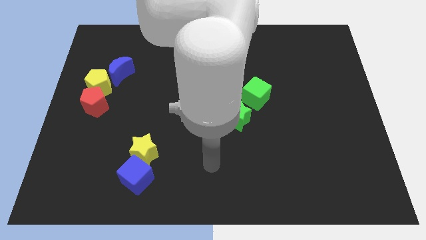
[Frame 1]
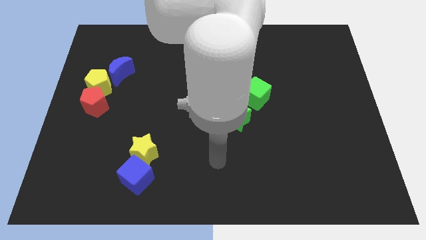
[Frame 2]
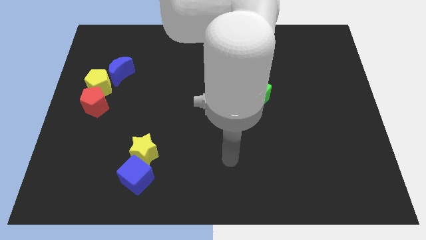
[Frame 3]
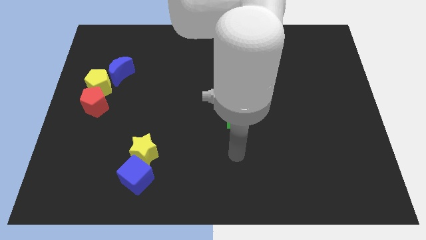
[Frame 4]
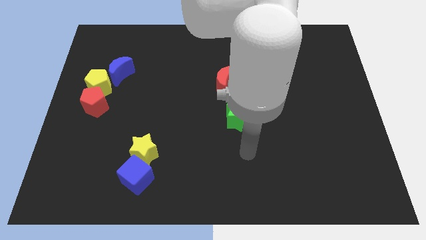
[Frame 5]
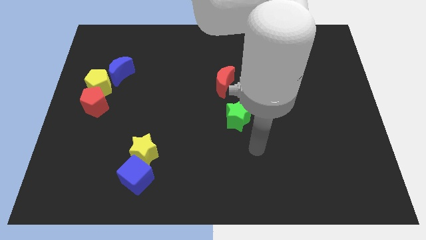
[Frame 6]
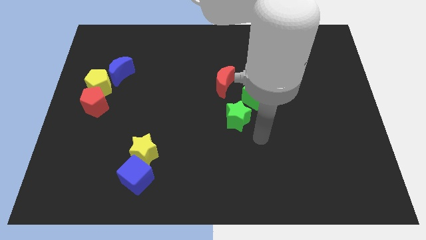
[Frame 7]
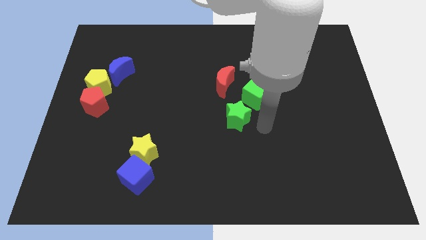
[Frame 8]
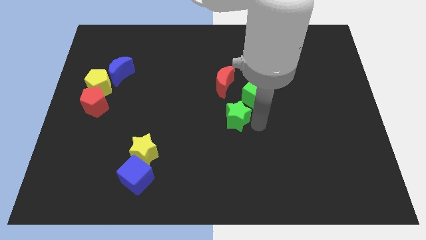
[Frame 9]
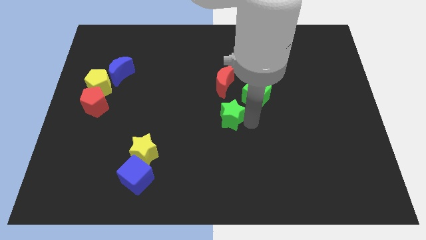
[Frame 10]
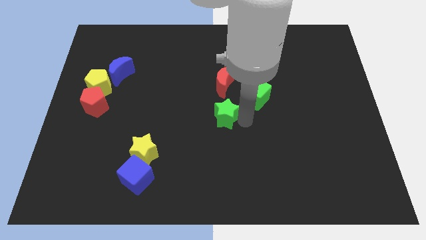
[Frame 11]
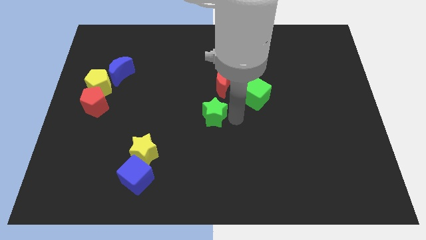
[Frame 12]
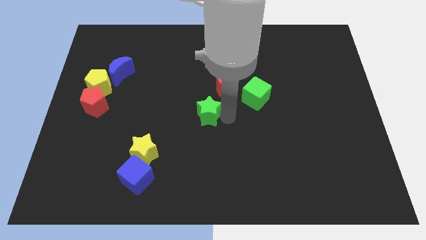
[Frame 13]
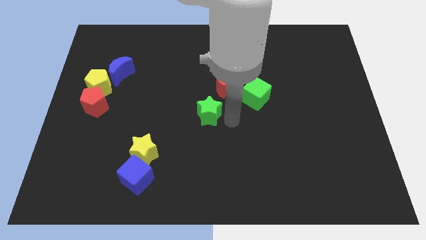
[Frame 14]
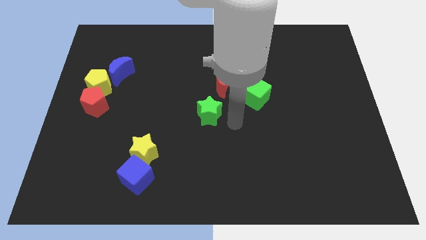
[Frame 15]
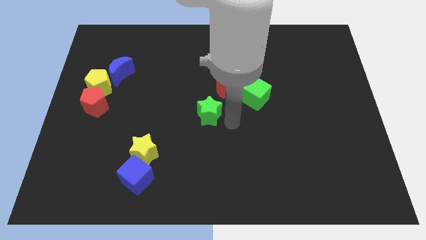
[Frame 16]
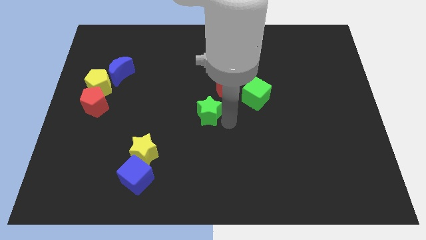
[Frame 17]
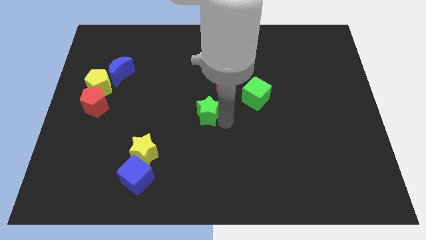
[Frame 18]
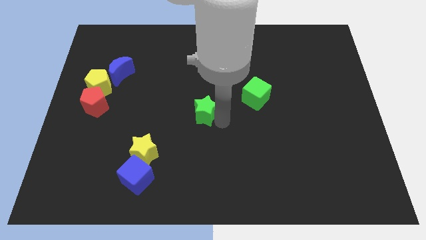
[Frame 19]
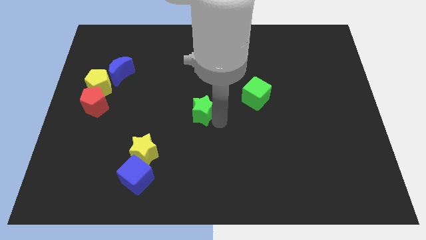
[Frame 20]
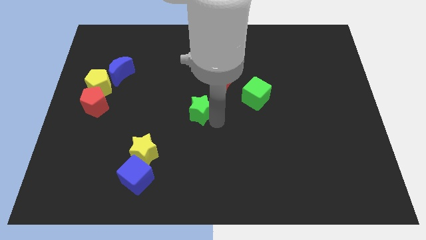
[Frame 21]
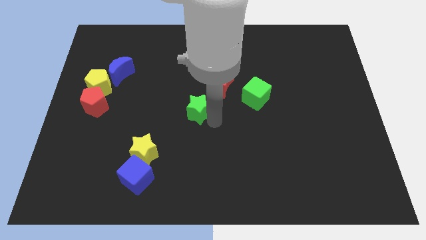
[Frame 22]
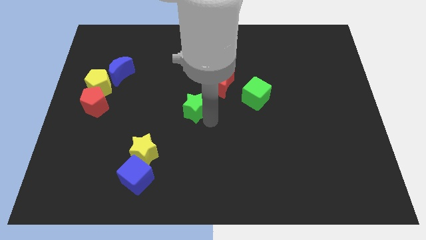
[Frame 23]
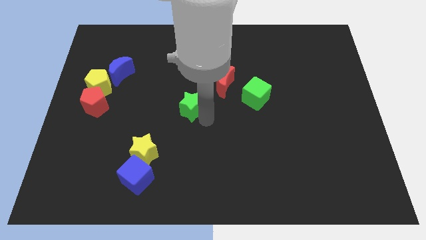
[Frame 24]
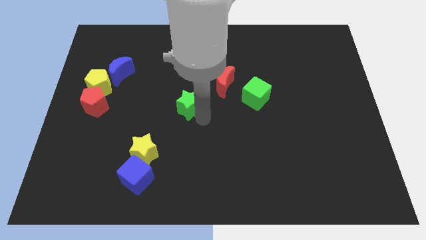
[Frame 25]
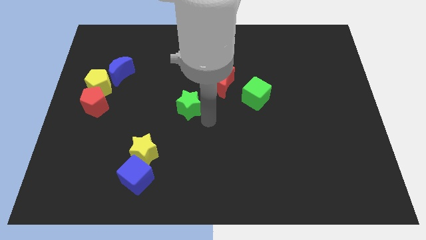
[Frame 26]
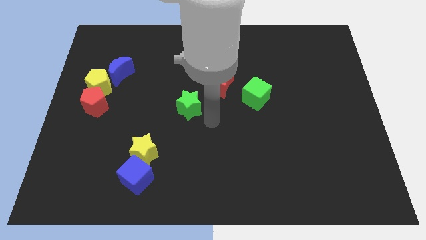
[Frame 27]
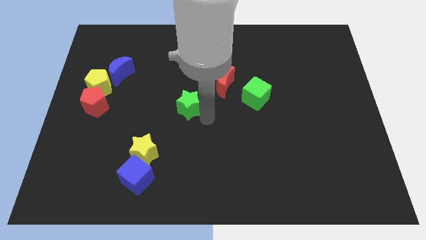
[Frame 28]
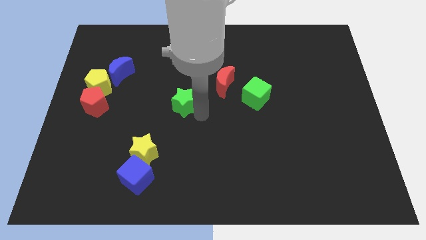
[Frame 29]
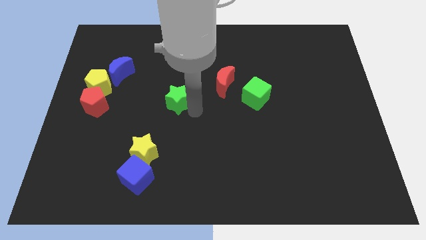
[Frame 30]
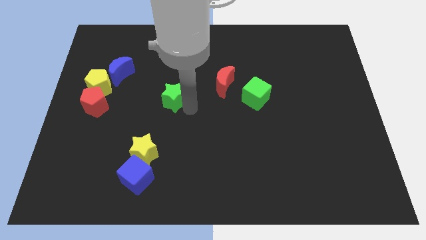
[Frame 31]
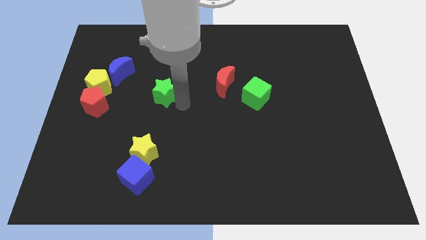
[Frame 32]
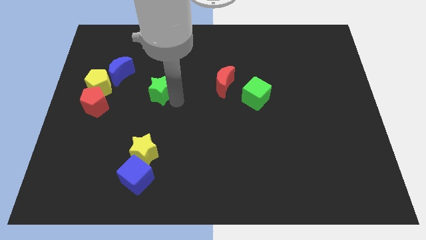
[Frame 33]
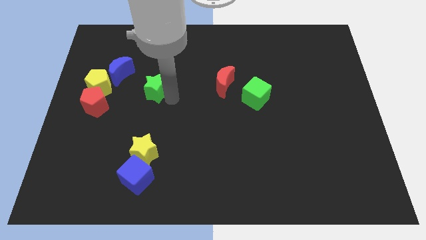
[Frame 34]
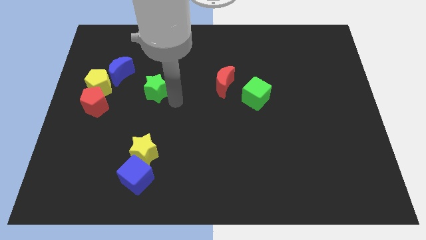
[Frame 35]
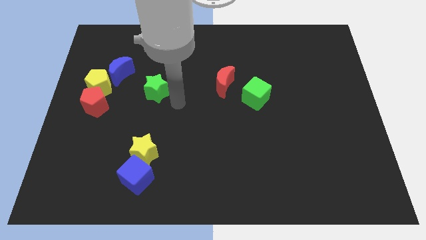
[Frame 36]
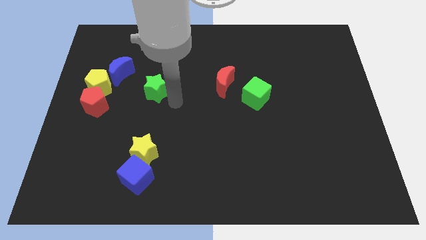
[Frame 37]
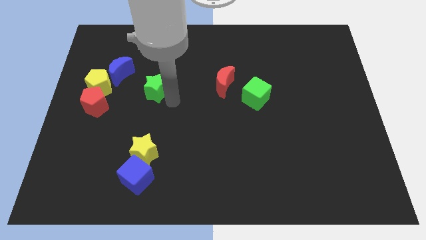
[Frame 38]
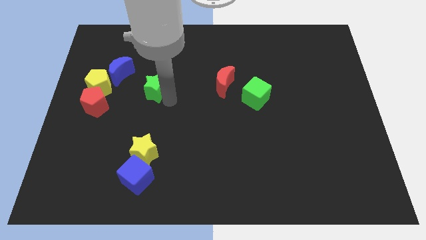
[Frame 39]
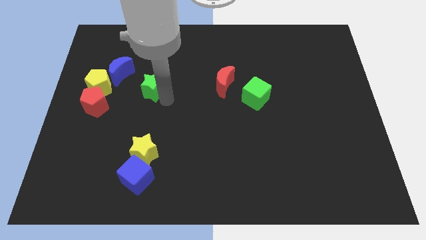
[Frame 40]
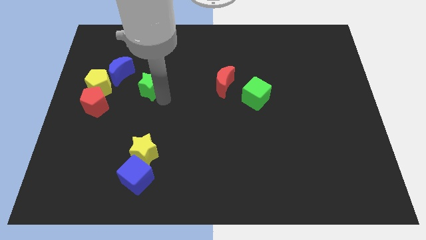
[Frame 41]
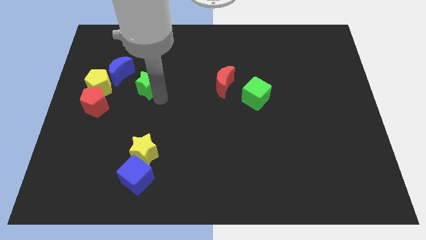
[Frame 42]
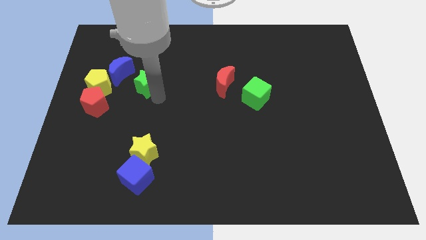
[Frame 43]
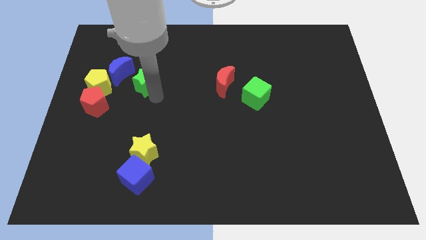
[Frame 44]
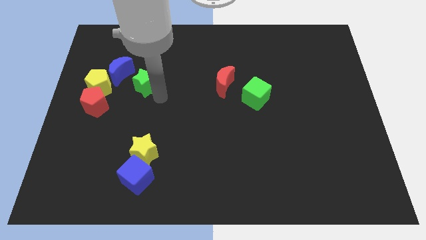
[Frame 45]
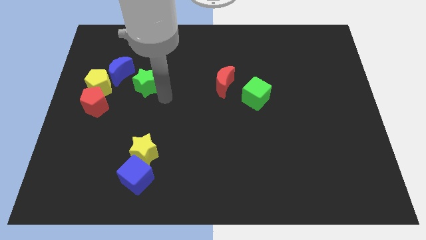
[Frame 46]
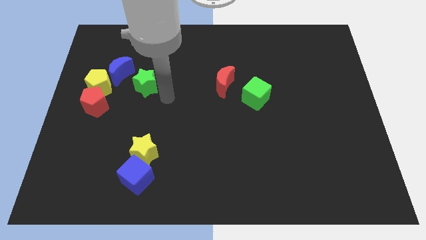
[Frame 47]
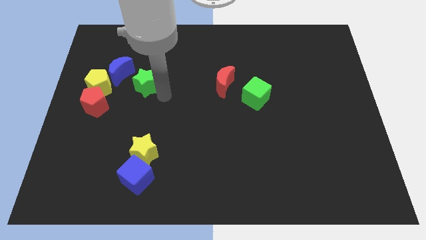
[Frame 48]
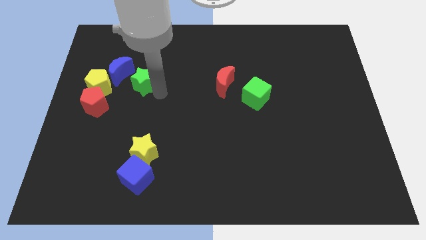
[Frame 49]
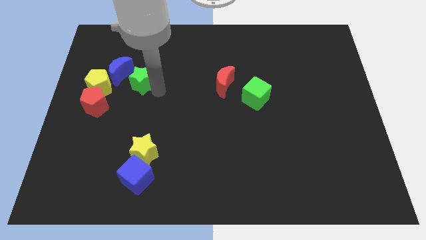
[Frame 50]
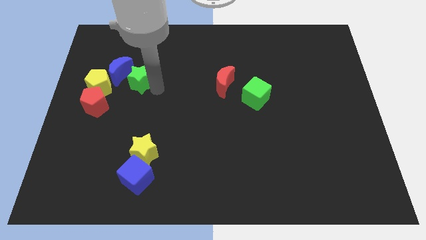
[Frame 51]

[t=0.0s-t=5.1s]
move the green star towards the blue moon

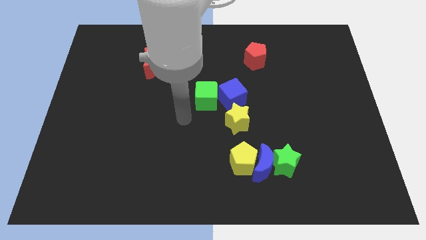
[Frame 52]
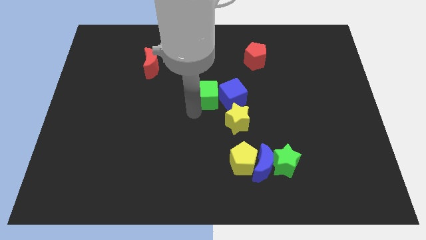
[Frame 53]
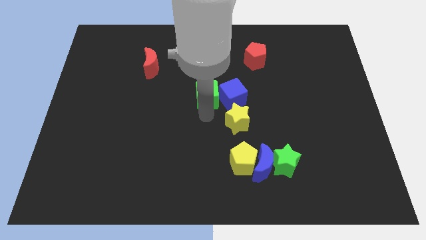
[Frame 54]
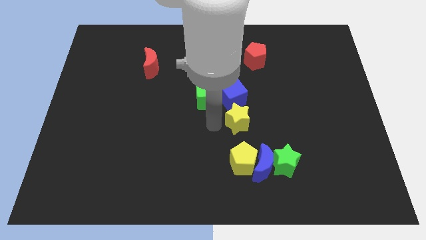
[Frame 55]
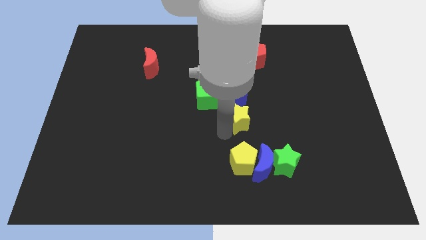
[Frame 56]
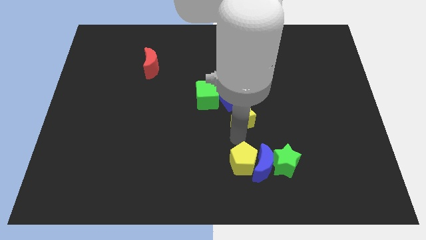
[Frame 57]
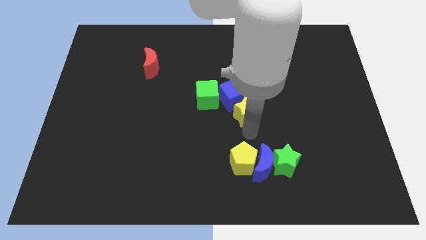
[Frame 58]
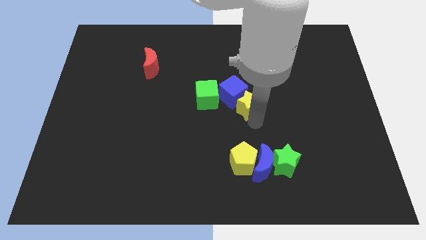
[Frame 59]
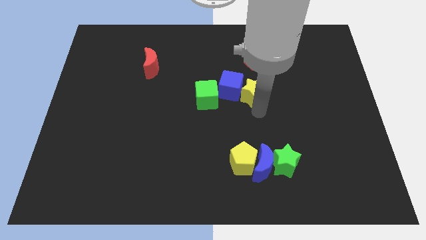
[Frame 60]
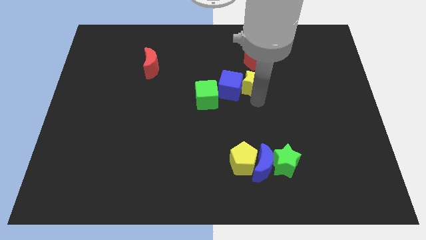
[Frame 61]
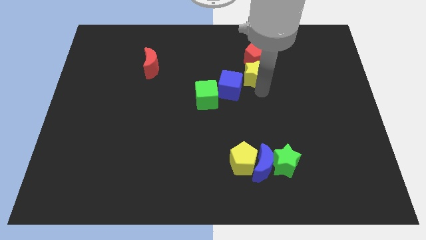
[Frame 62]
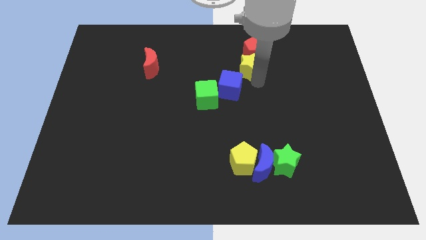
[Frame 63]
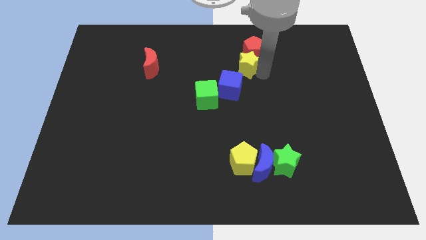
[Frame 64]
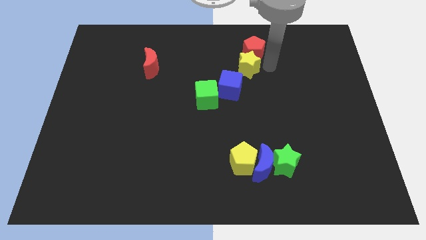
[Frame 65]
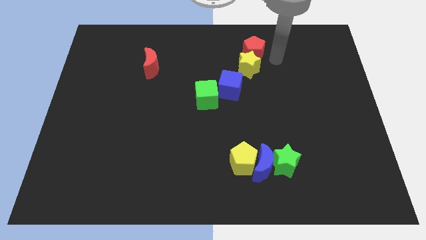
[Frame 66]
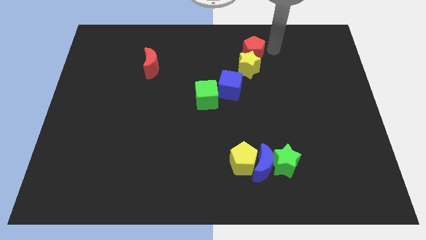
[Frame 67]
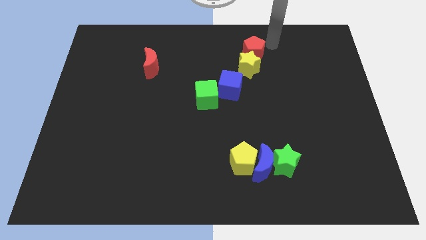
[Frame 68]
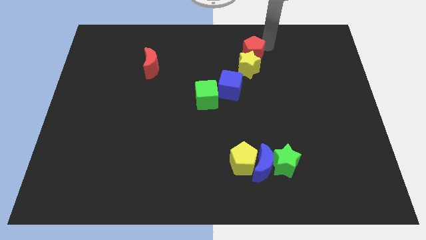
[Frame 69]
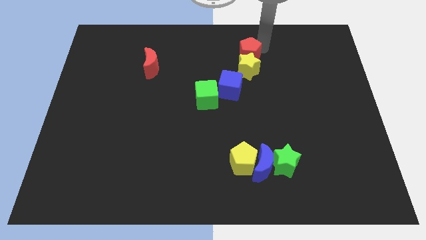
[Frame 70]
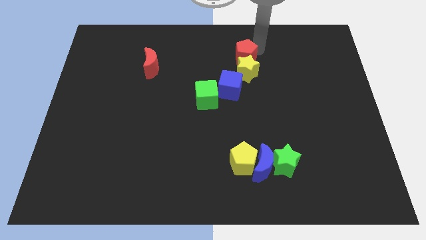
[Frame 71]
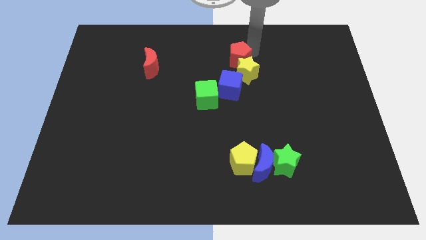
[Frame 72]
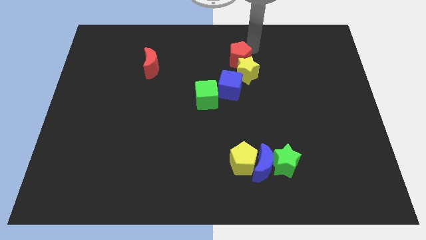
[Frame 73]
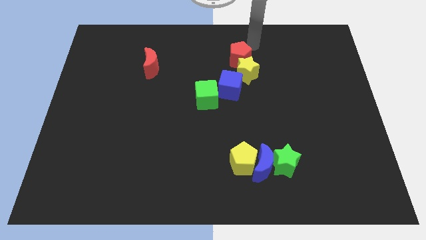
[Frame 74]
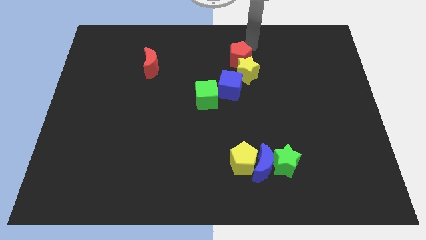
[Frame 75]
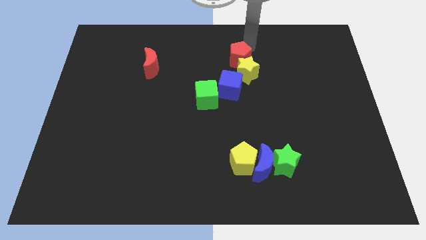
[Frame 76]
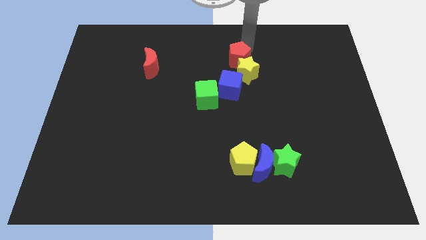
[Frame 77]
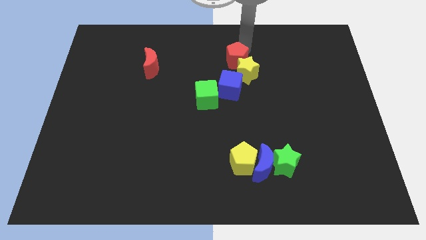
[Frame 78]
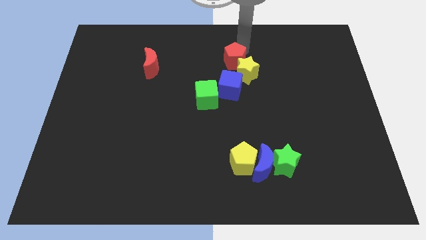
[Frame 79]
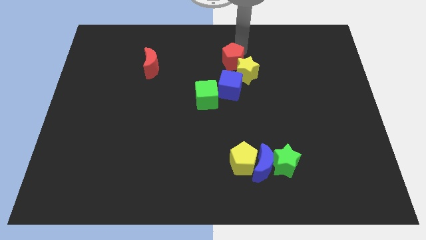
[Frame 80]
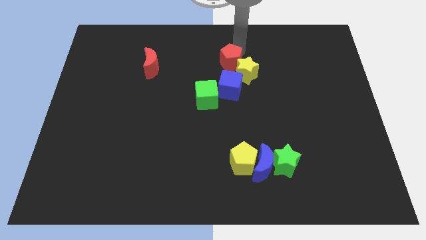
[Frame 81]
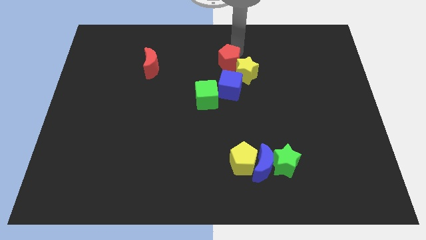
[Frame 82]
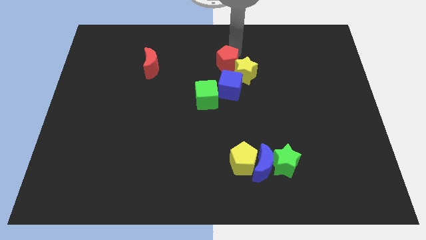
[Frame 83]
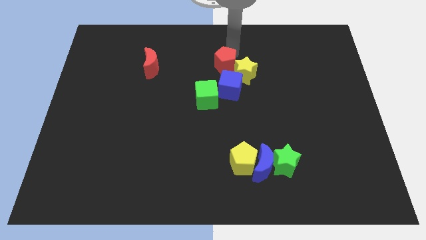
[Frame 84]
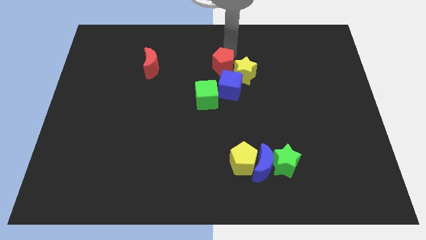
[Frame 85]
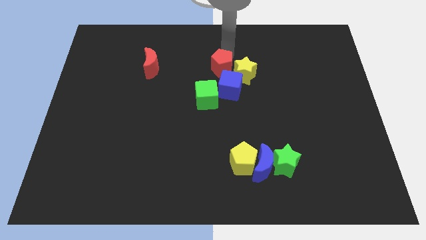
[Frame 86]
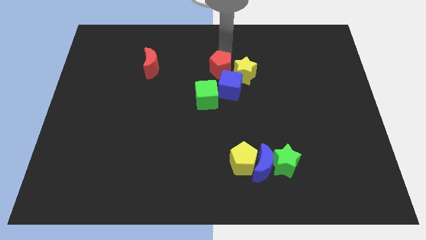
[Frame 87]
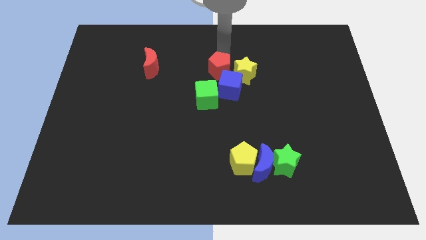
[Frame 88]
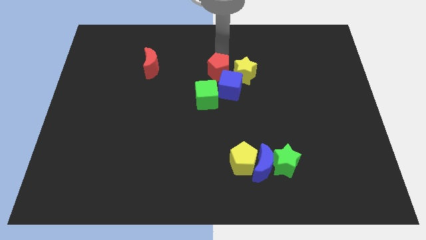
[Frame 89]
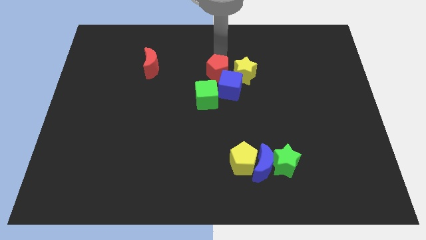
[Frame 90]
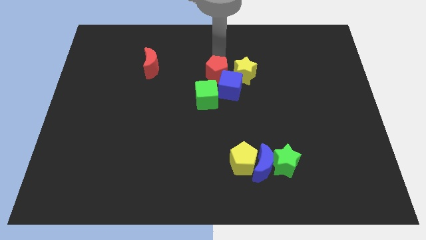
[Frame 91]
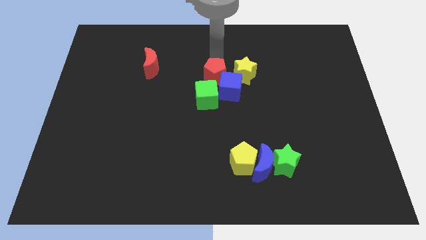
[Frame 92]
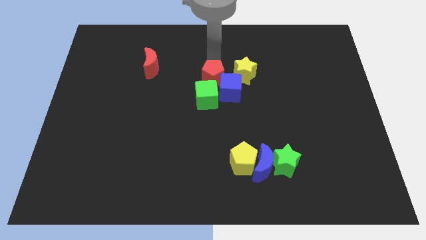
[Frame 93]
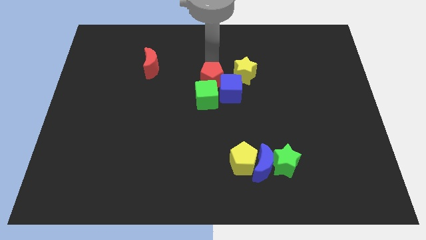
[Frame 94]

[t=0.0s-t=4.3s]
put the red pentagon close to the green cube
